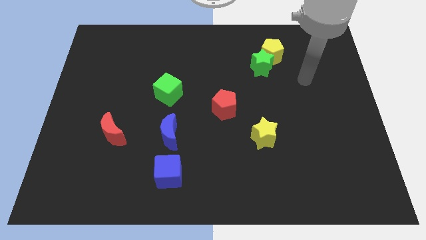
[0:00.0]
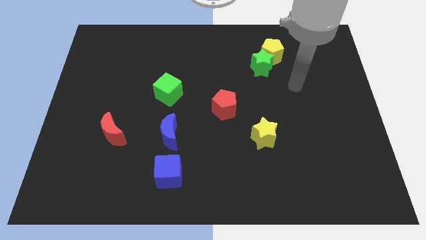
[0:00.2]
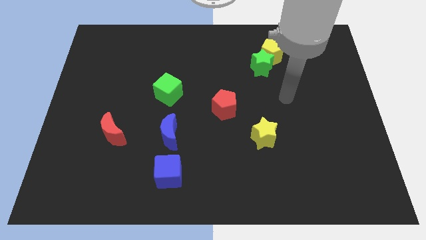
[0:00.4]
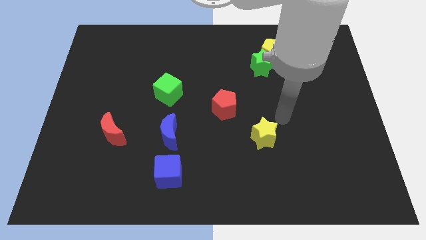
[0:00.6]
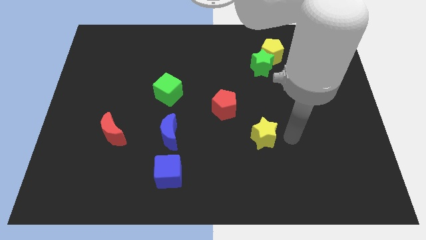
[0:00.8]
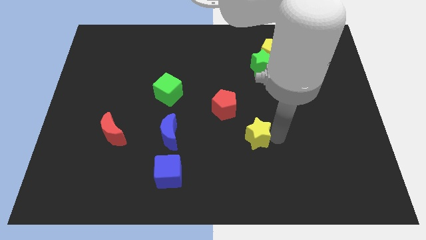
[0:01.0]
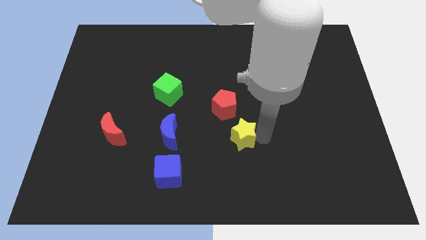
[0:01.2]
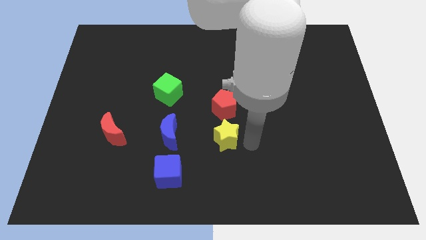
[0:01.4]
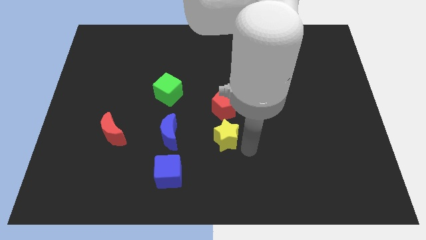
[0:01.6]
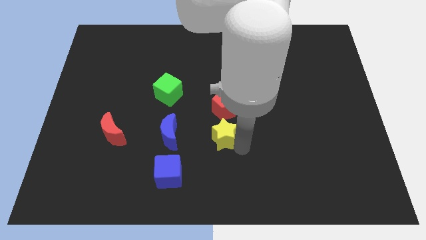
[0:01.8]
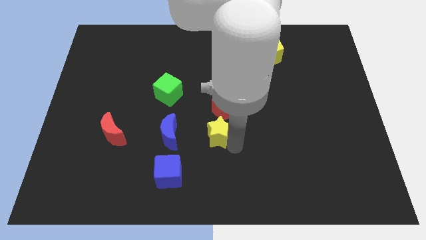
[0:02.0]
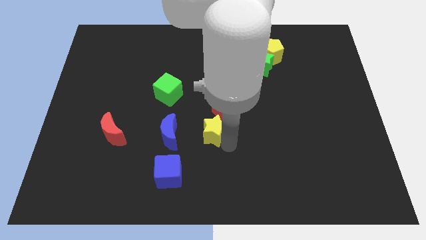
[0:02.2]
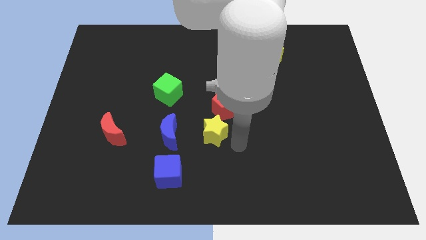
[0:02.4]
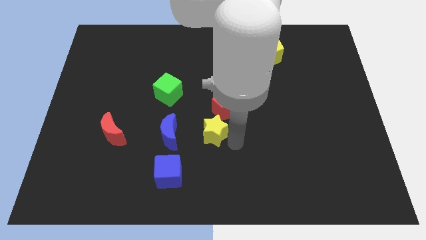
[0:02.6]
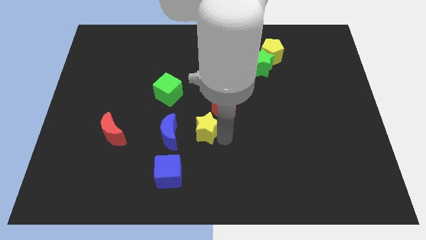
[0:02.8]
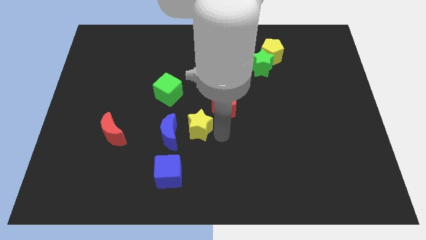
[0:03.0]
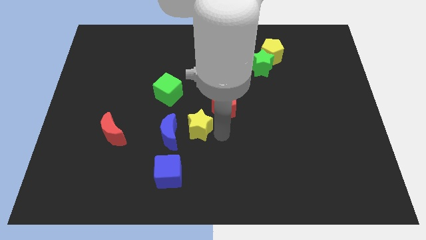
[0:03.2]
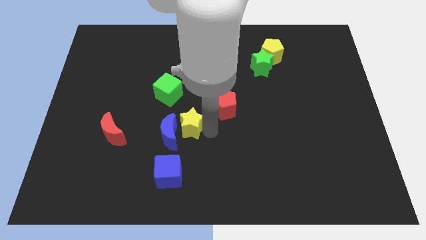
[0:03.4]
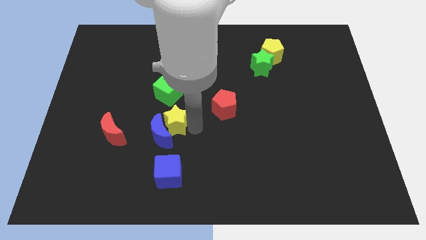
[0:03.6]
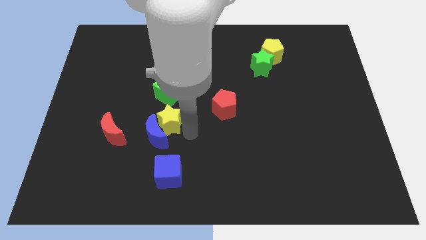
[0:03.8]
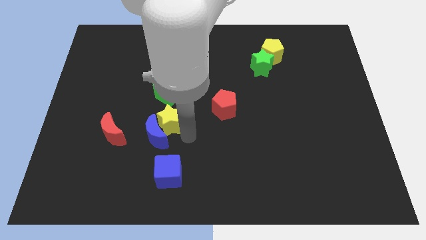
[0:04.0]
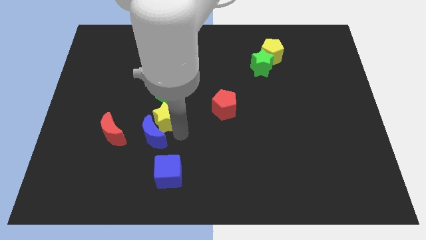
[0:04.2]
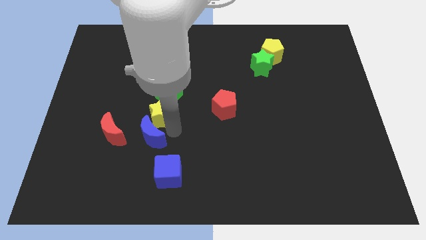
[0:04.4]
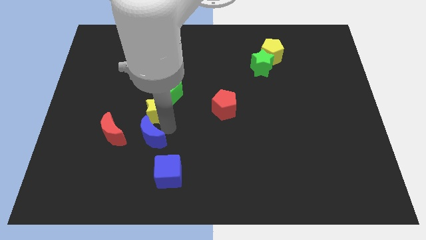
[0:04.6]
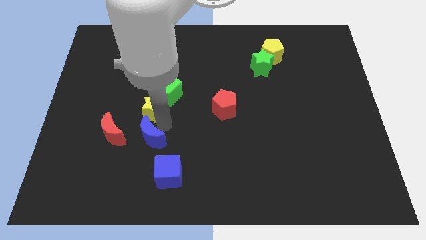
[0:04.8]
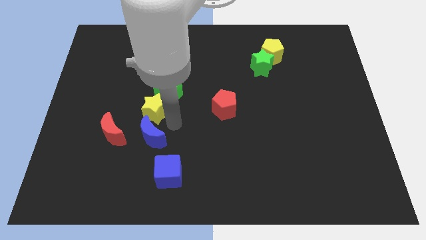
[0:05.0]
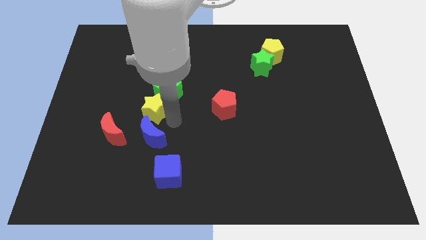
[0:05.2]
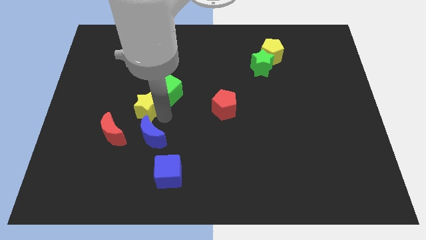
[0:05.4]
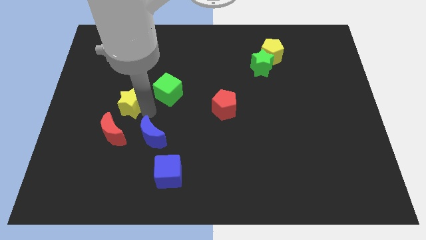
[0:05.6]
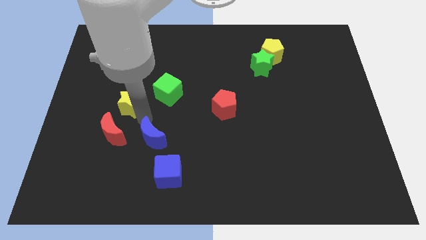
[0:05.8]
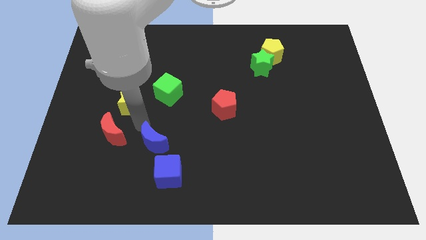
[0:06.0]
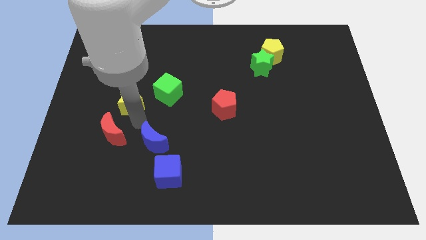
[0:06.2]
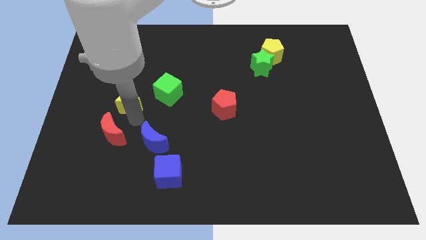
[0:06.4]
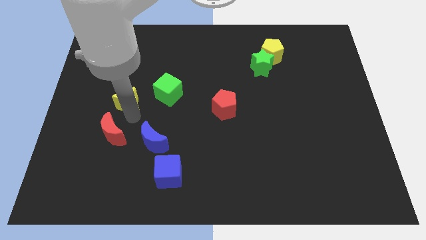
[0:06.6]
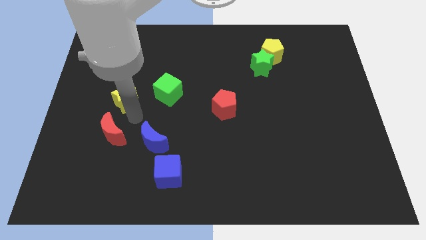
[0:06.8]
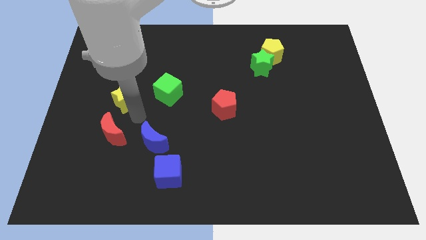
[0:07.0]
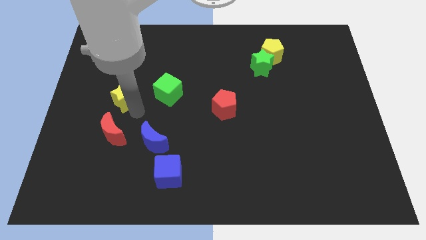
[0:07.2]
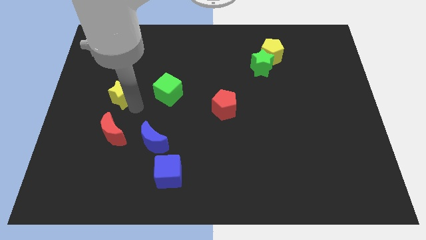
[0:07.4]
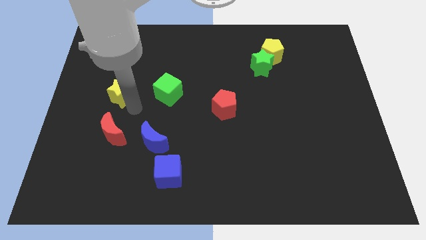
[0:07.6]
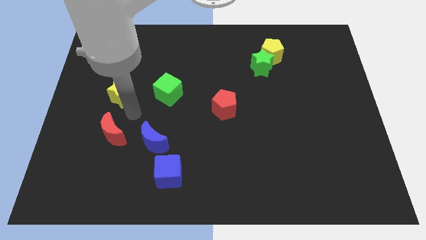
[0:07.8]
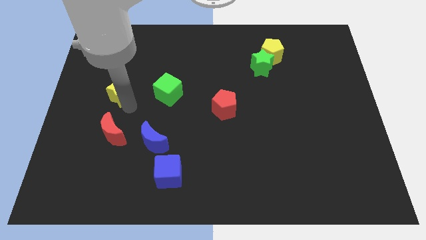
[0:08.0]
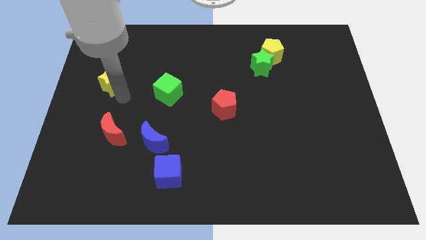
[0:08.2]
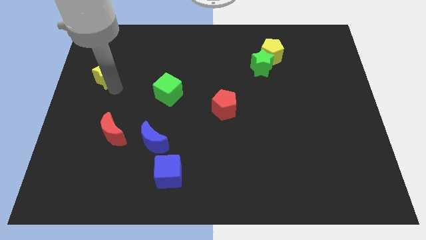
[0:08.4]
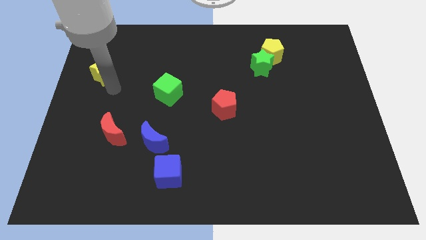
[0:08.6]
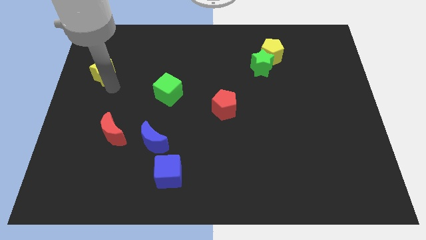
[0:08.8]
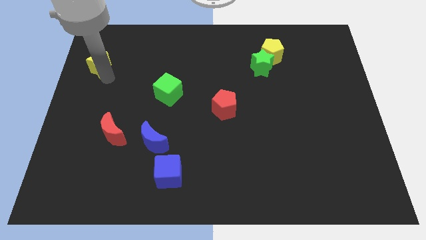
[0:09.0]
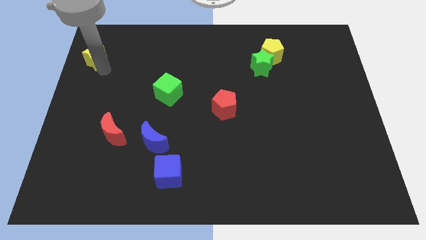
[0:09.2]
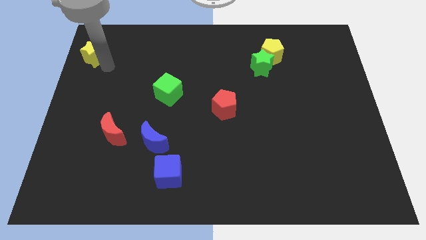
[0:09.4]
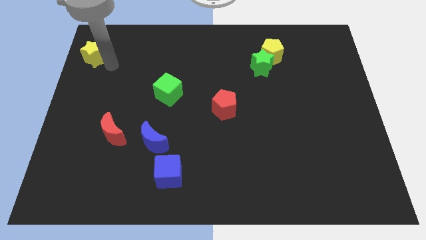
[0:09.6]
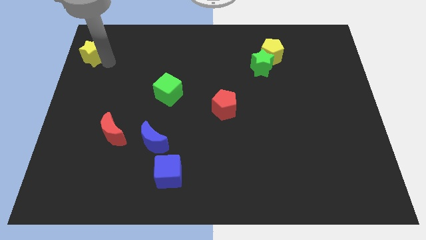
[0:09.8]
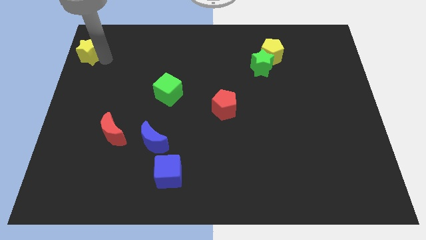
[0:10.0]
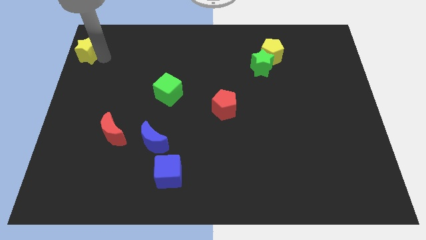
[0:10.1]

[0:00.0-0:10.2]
push the yellow star to the top left

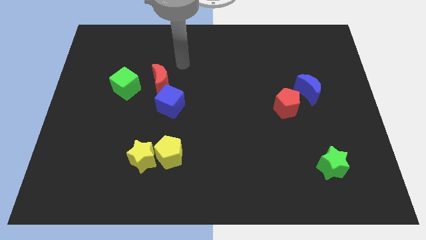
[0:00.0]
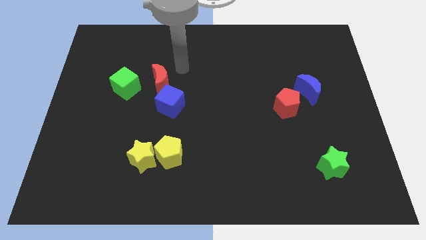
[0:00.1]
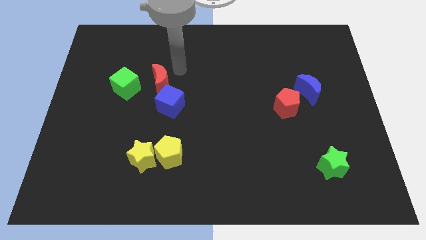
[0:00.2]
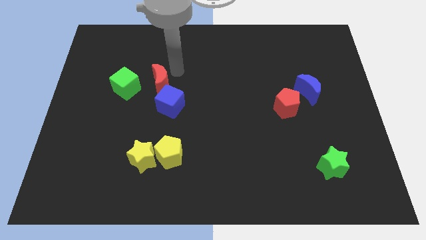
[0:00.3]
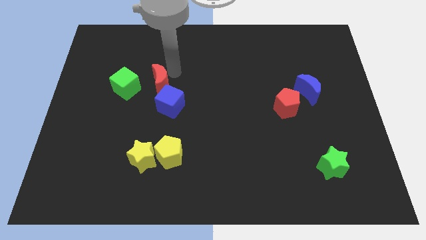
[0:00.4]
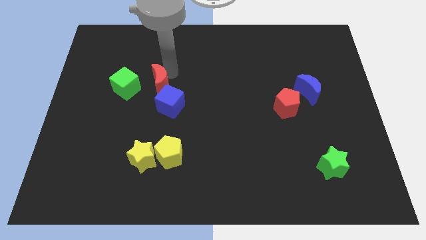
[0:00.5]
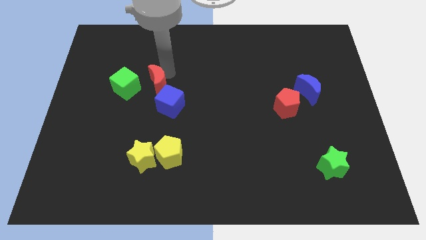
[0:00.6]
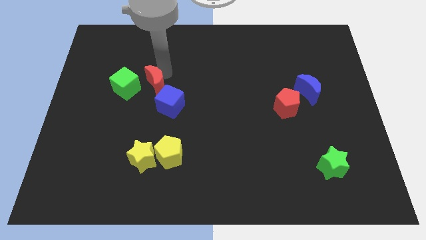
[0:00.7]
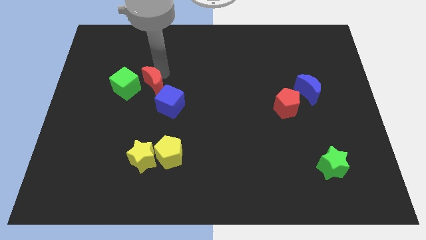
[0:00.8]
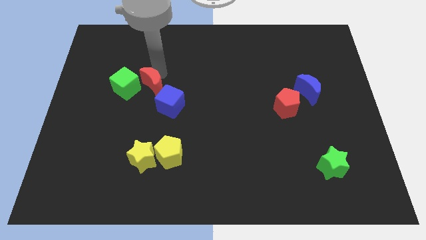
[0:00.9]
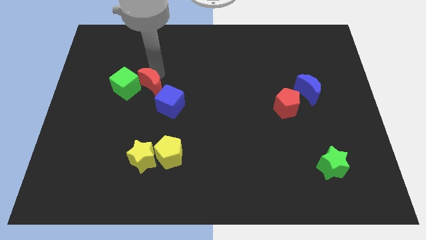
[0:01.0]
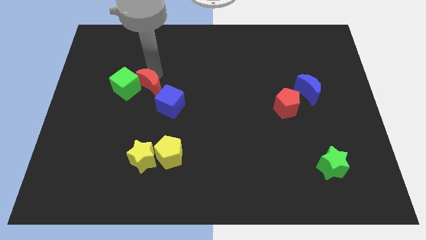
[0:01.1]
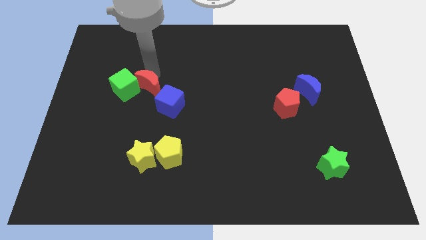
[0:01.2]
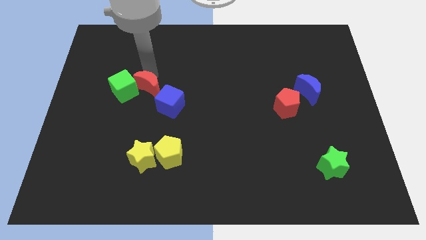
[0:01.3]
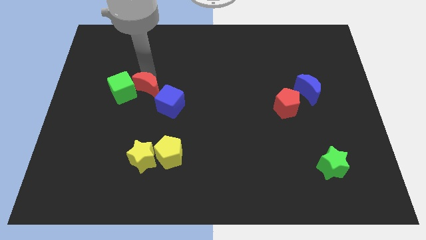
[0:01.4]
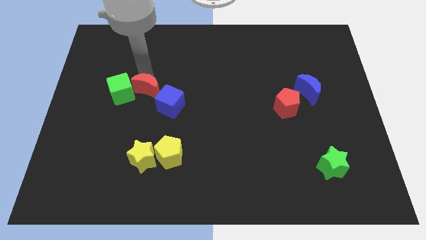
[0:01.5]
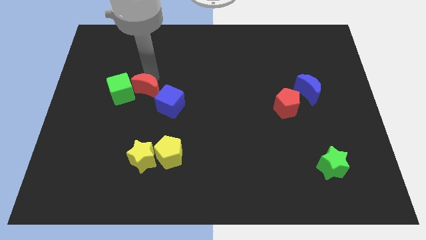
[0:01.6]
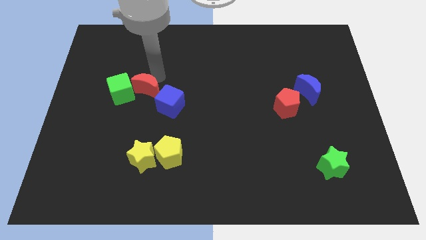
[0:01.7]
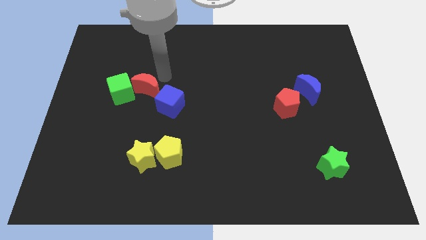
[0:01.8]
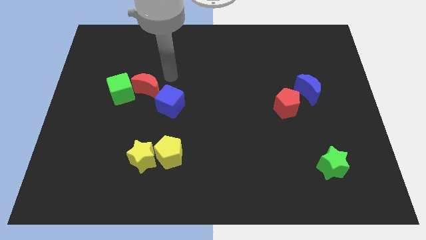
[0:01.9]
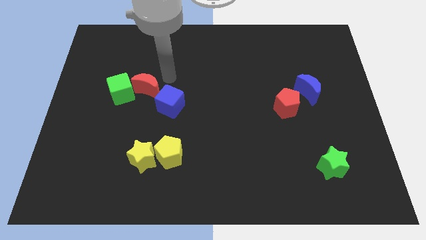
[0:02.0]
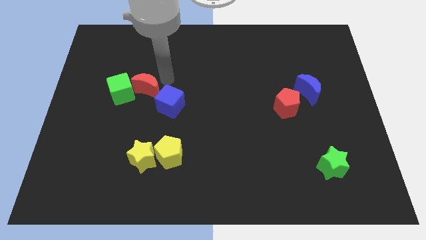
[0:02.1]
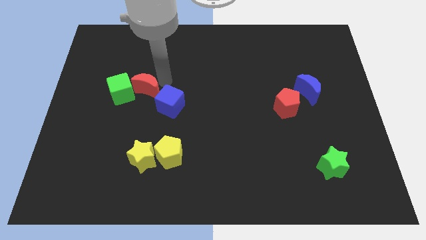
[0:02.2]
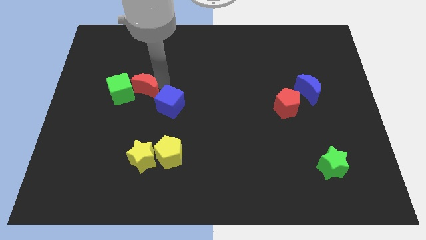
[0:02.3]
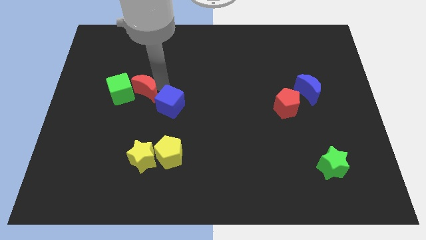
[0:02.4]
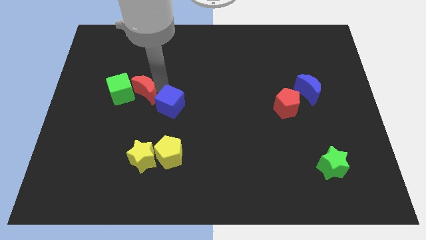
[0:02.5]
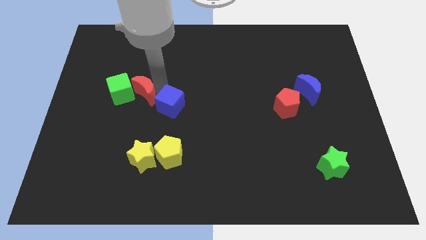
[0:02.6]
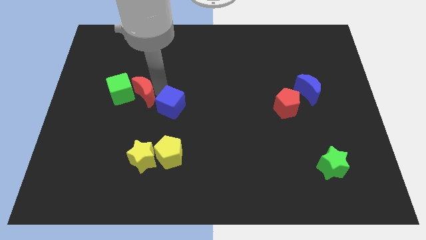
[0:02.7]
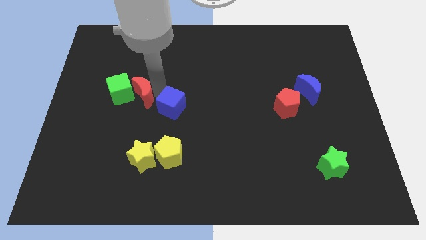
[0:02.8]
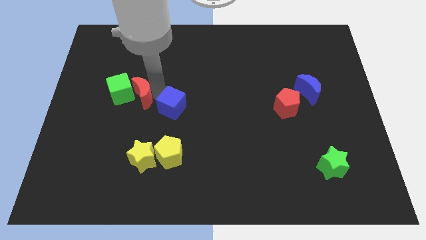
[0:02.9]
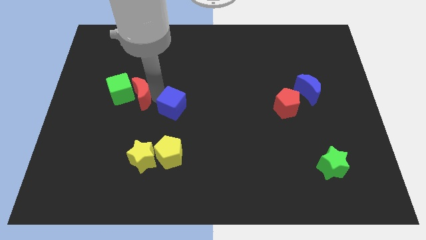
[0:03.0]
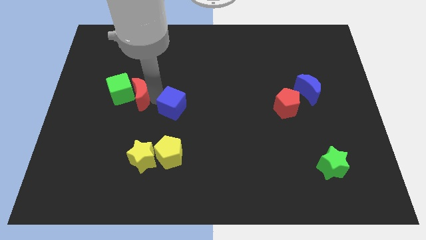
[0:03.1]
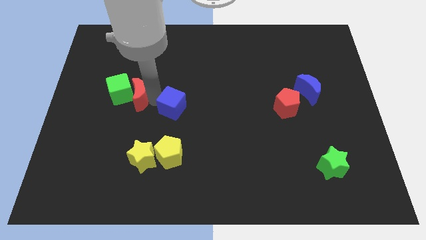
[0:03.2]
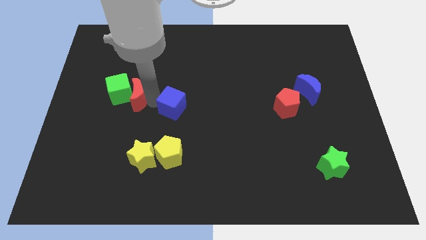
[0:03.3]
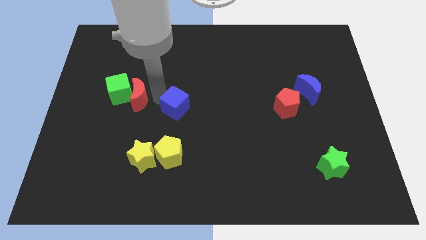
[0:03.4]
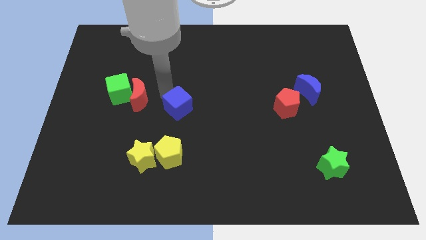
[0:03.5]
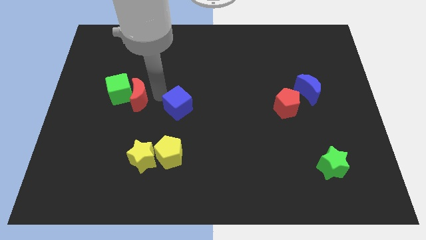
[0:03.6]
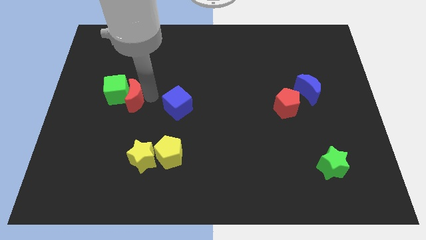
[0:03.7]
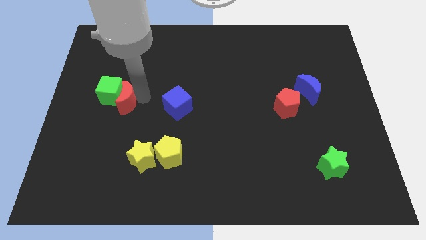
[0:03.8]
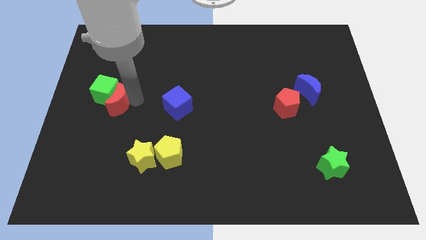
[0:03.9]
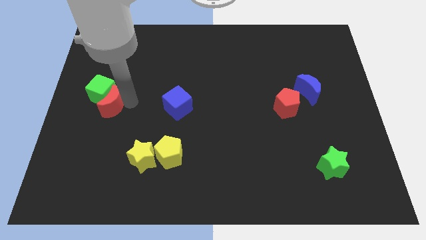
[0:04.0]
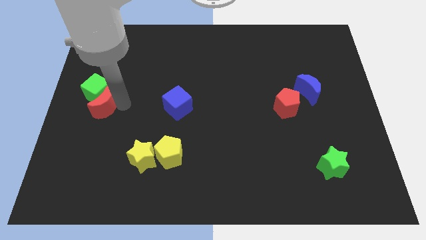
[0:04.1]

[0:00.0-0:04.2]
push the red moon to the center left
